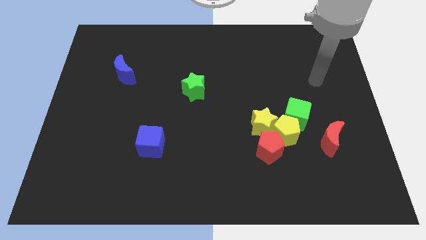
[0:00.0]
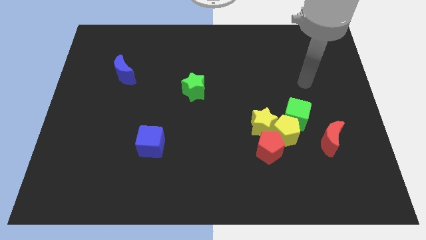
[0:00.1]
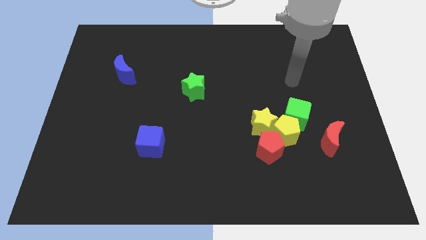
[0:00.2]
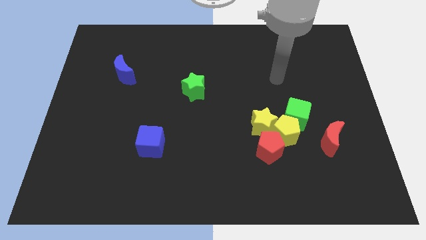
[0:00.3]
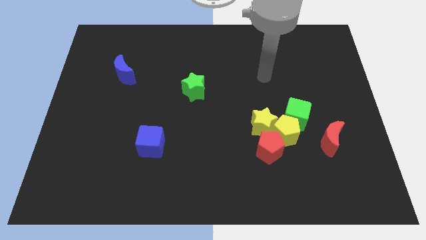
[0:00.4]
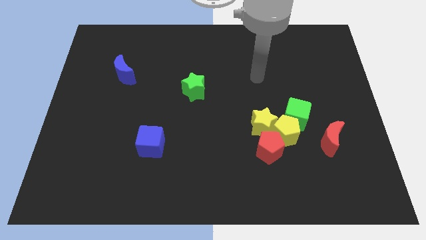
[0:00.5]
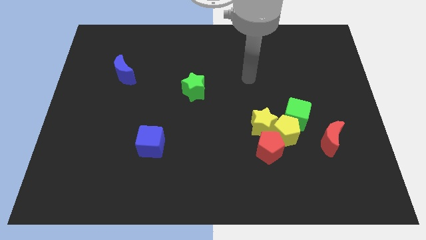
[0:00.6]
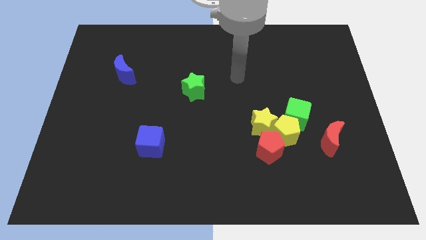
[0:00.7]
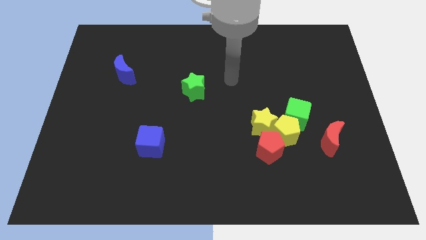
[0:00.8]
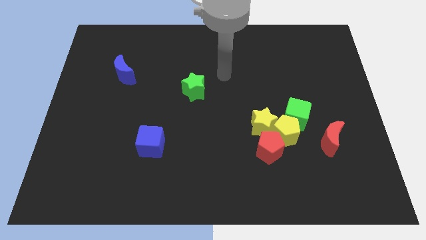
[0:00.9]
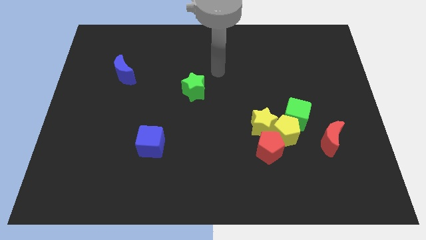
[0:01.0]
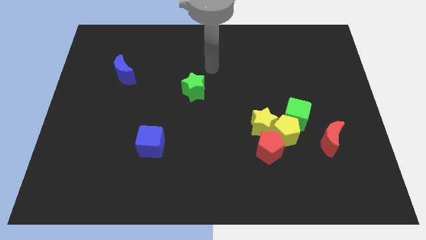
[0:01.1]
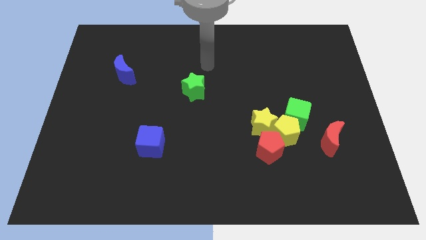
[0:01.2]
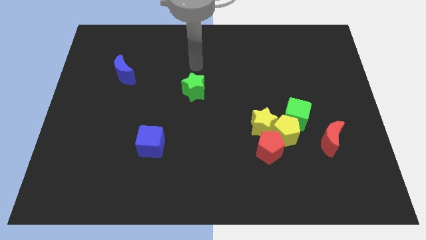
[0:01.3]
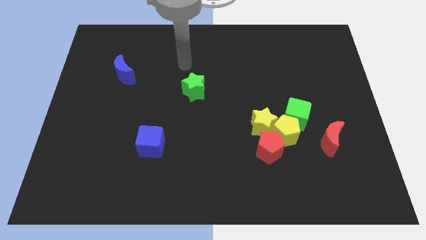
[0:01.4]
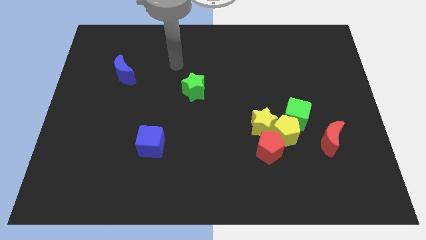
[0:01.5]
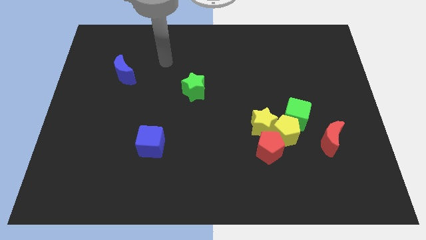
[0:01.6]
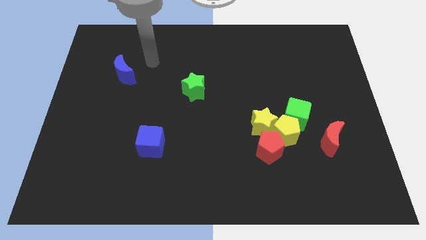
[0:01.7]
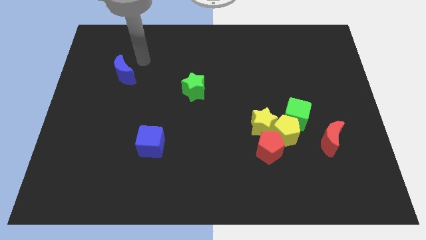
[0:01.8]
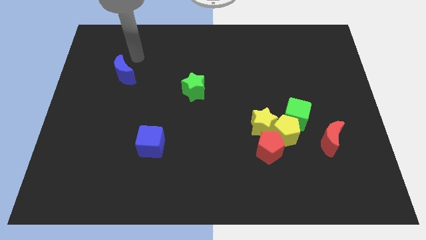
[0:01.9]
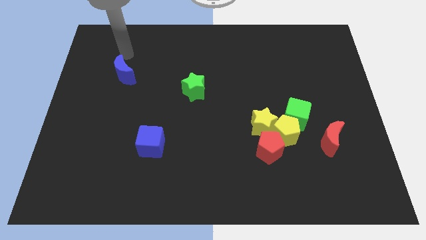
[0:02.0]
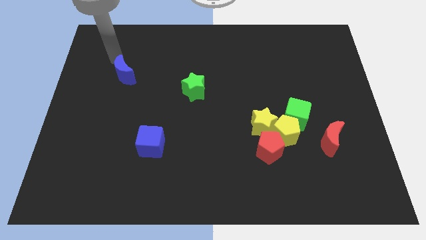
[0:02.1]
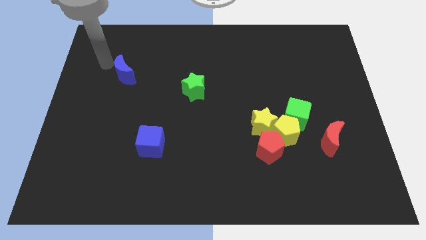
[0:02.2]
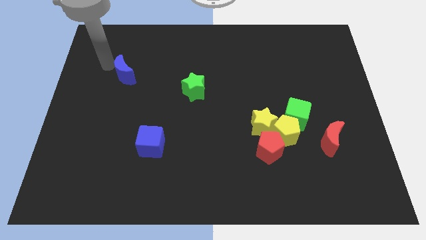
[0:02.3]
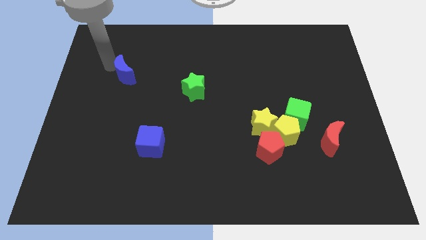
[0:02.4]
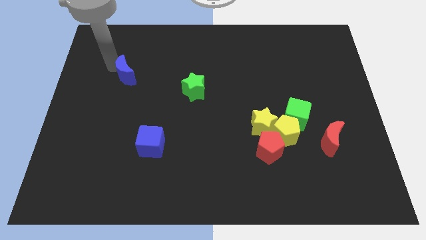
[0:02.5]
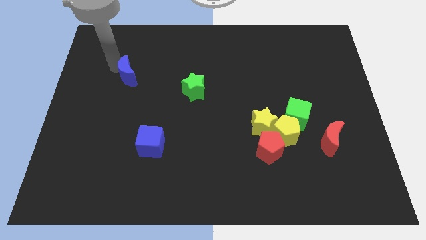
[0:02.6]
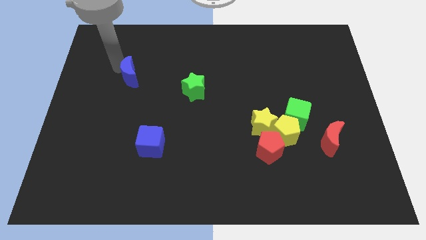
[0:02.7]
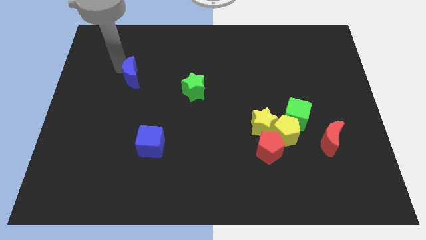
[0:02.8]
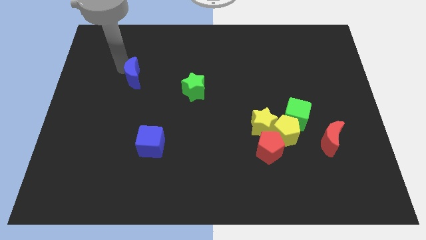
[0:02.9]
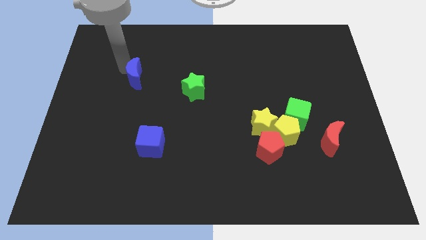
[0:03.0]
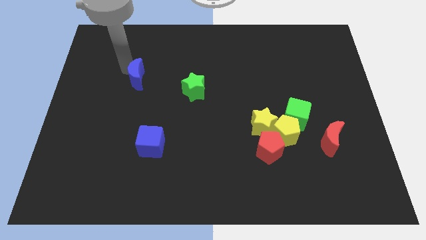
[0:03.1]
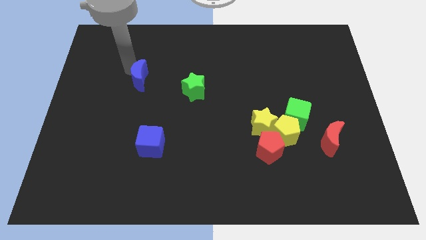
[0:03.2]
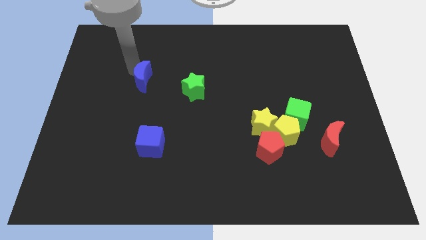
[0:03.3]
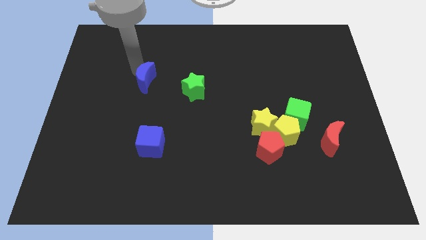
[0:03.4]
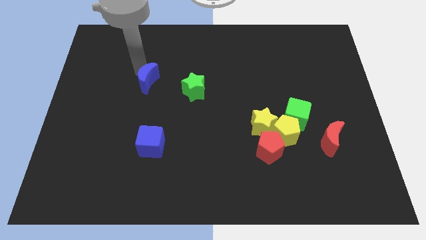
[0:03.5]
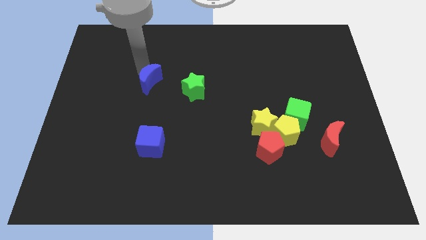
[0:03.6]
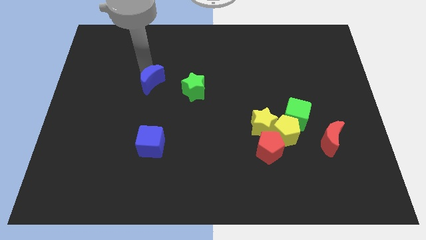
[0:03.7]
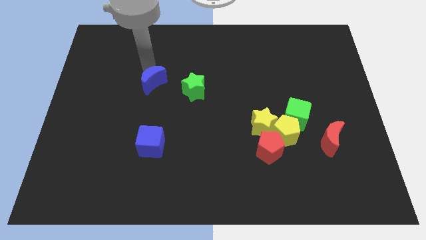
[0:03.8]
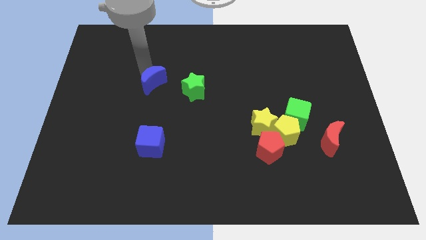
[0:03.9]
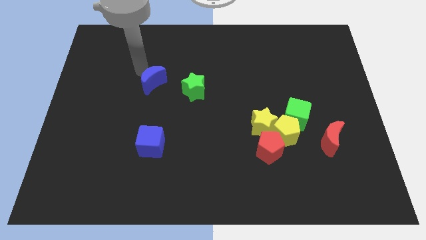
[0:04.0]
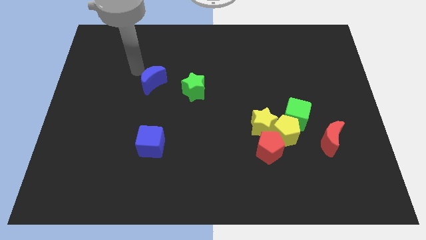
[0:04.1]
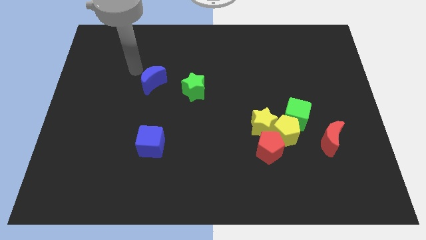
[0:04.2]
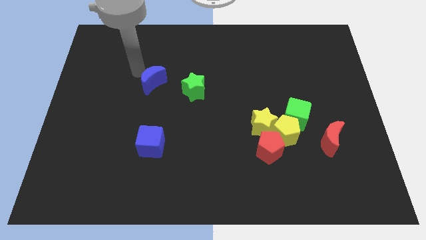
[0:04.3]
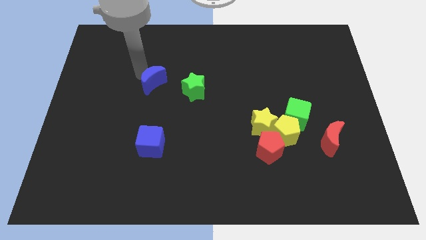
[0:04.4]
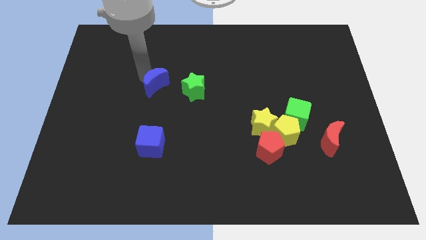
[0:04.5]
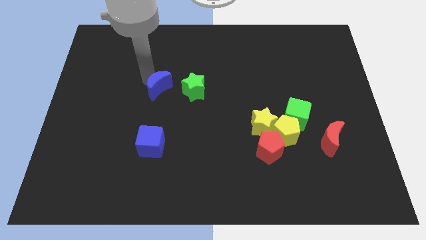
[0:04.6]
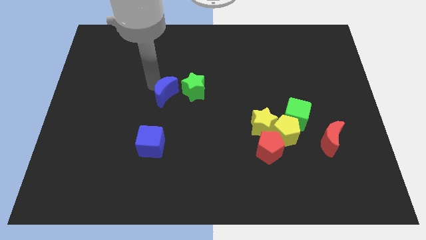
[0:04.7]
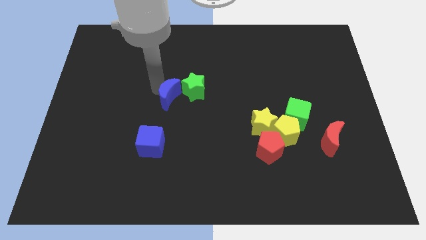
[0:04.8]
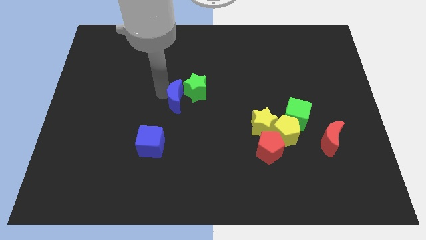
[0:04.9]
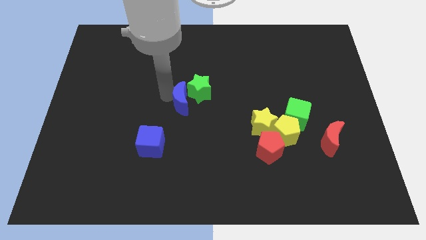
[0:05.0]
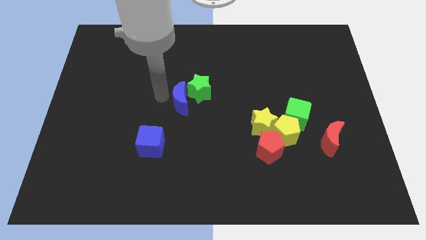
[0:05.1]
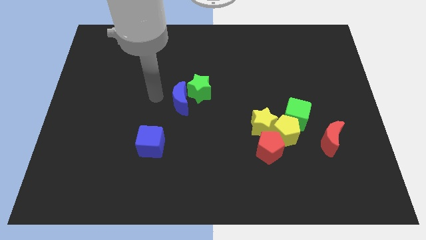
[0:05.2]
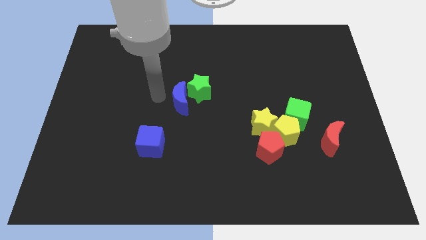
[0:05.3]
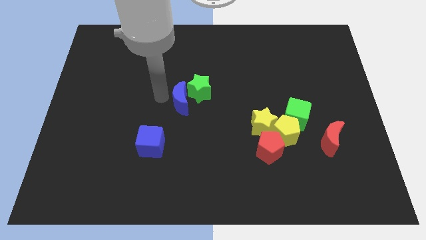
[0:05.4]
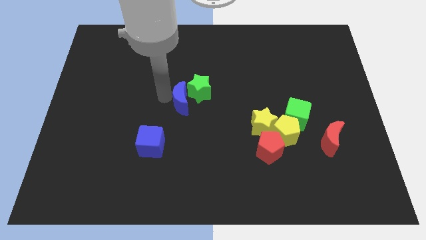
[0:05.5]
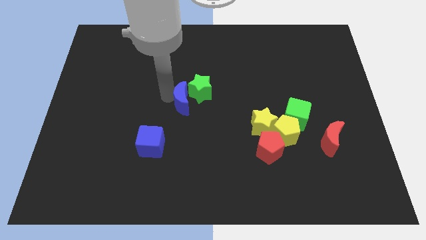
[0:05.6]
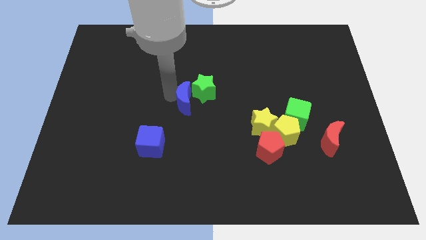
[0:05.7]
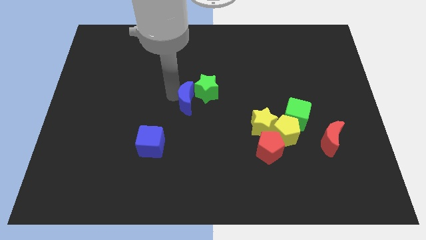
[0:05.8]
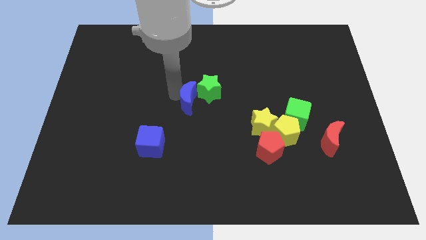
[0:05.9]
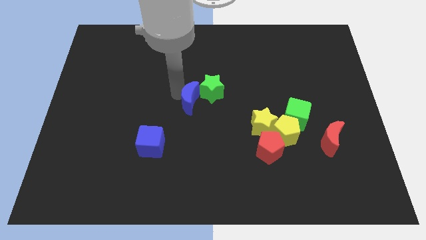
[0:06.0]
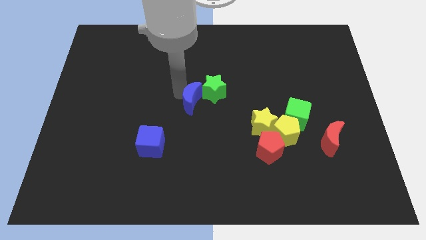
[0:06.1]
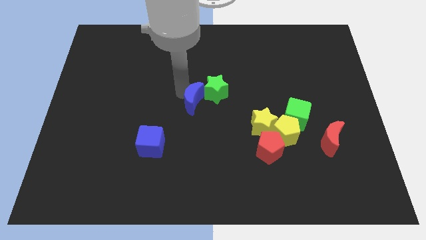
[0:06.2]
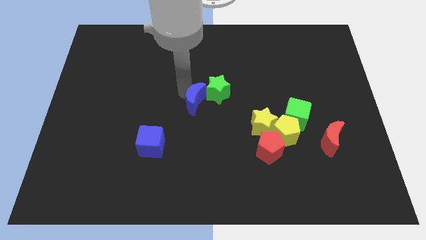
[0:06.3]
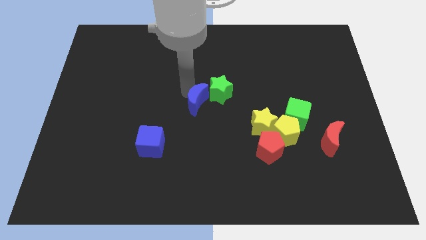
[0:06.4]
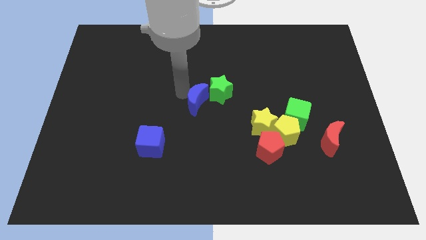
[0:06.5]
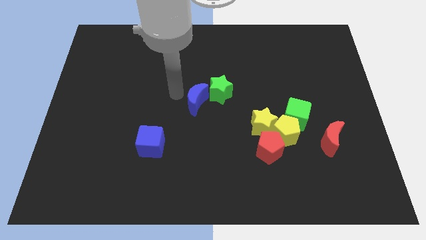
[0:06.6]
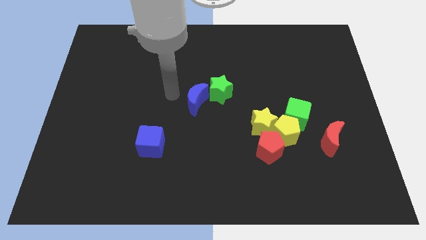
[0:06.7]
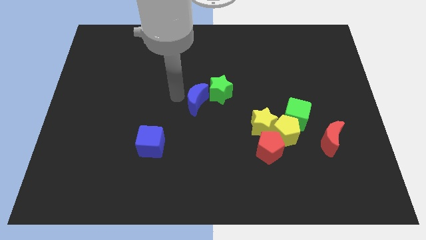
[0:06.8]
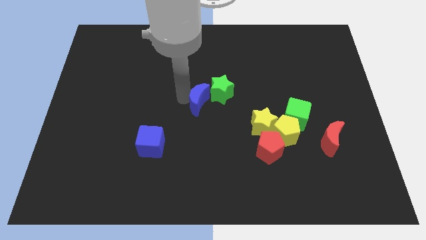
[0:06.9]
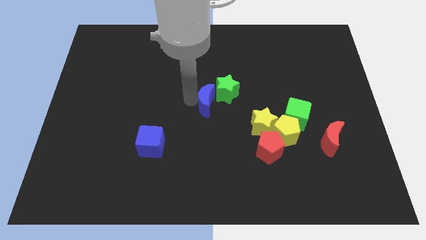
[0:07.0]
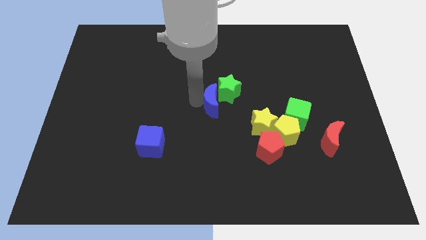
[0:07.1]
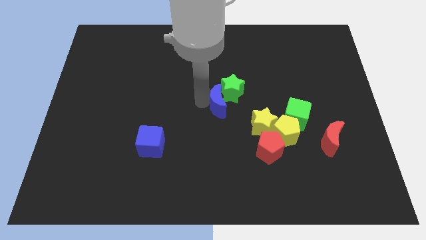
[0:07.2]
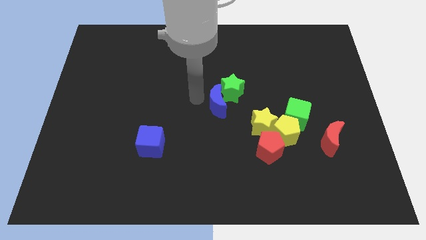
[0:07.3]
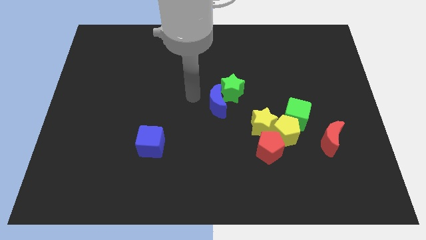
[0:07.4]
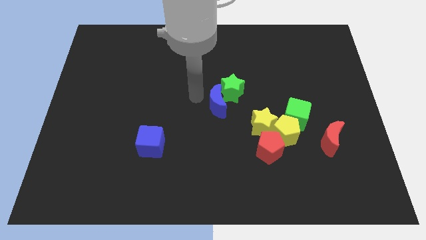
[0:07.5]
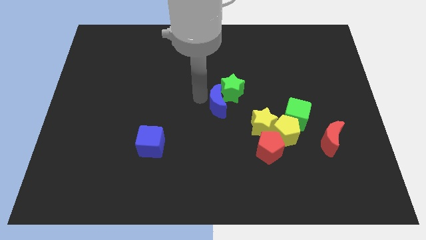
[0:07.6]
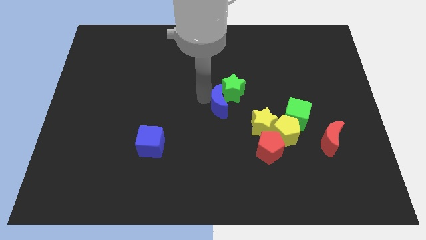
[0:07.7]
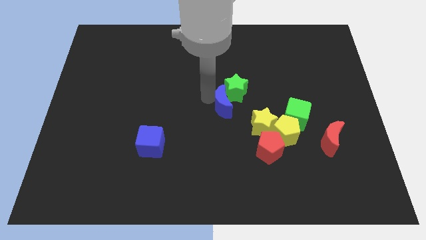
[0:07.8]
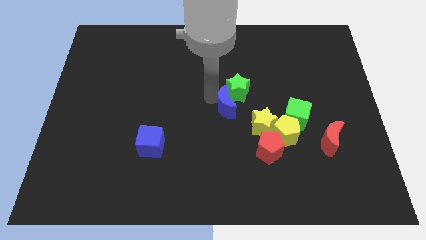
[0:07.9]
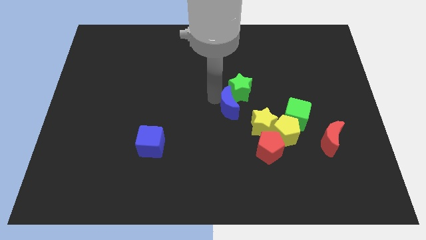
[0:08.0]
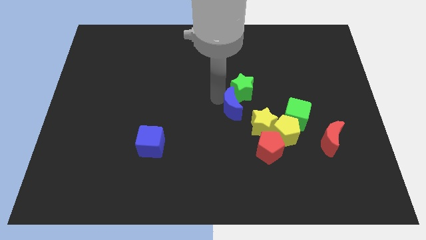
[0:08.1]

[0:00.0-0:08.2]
put the blue moon to the left of the green cube
